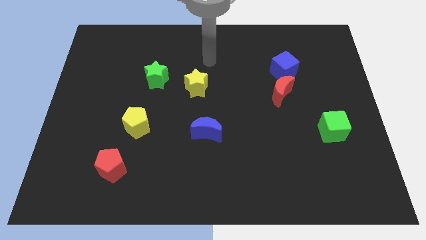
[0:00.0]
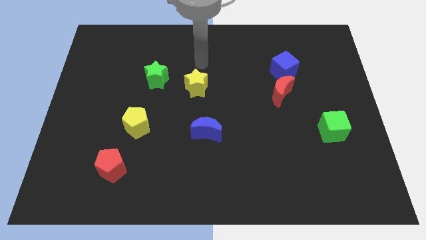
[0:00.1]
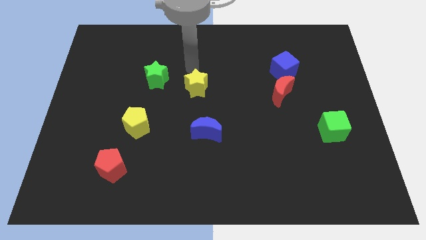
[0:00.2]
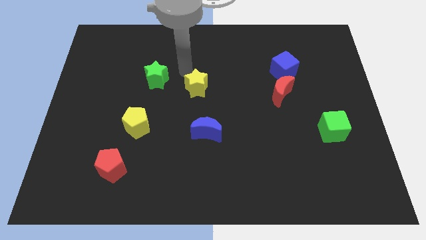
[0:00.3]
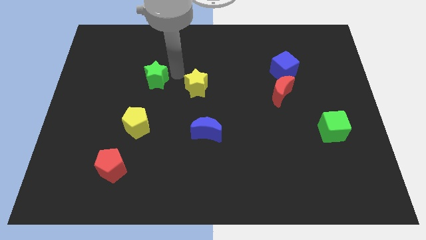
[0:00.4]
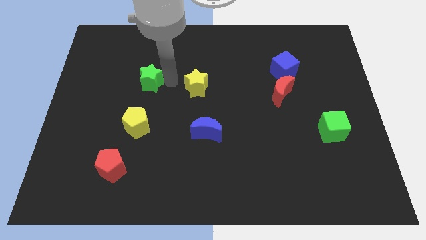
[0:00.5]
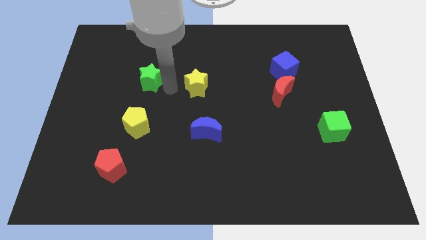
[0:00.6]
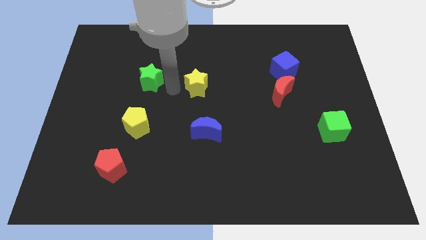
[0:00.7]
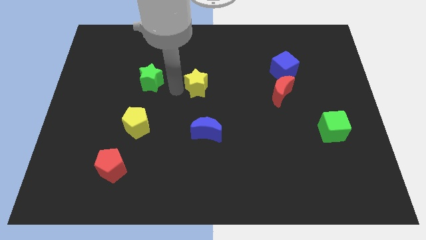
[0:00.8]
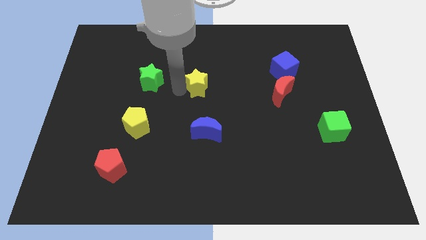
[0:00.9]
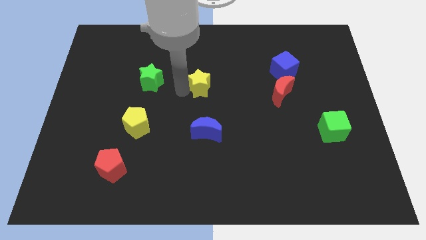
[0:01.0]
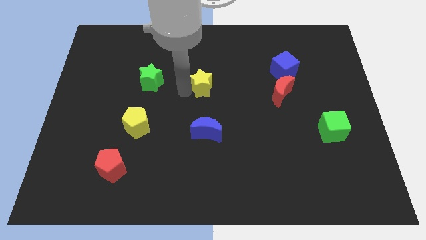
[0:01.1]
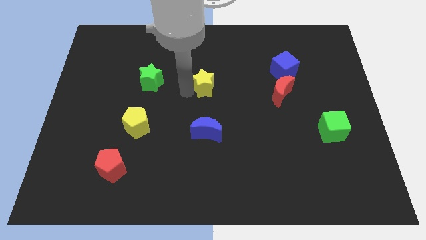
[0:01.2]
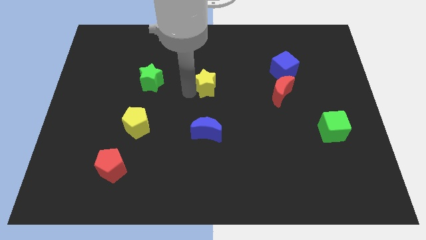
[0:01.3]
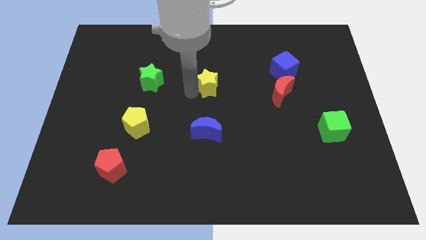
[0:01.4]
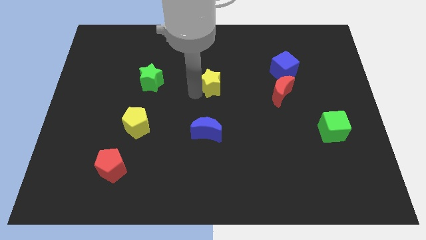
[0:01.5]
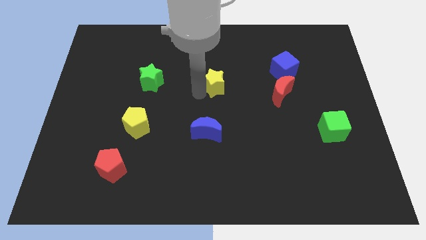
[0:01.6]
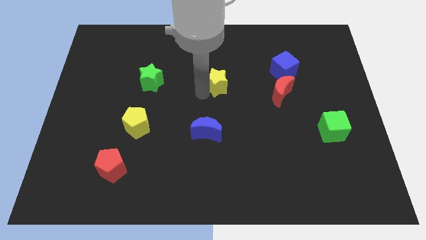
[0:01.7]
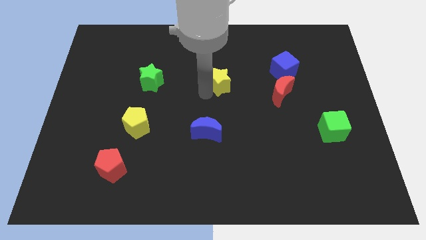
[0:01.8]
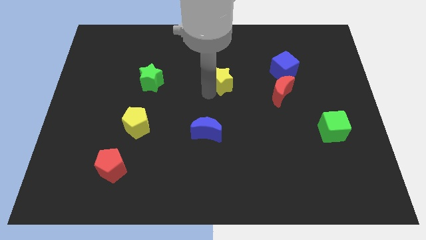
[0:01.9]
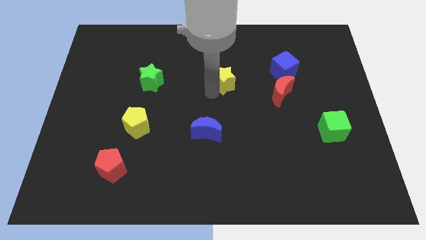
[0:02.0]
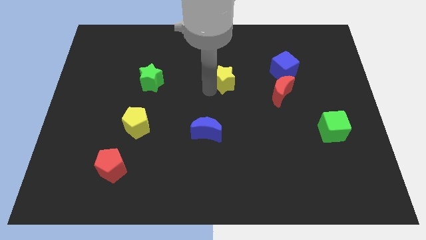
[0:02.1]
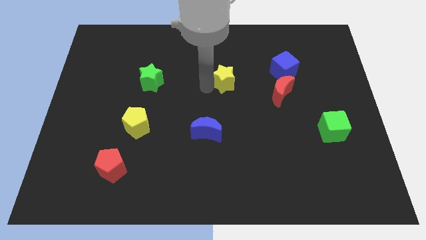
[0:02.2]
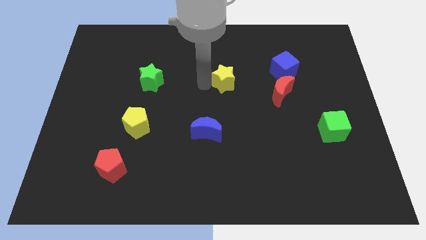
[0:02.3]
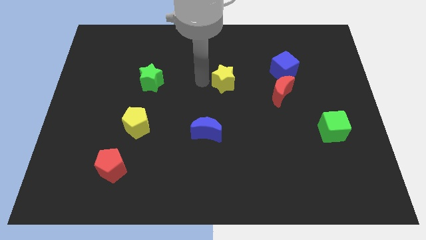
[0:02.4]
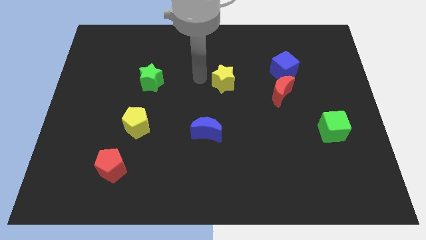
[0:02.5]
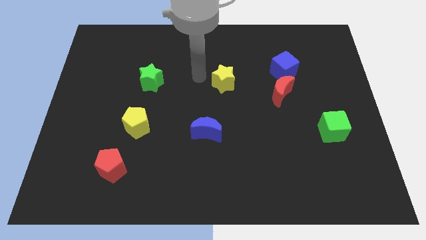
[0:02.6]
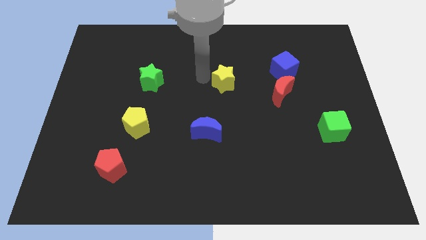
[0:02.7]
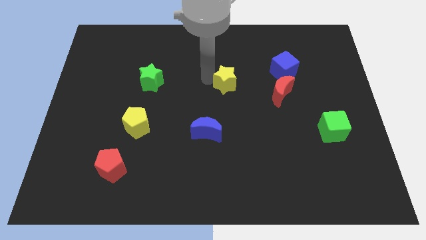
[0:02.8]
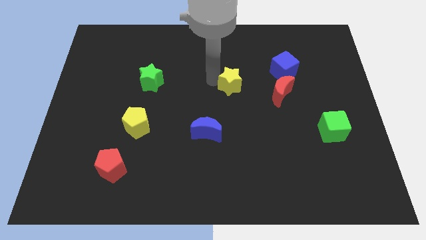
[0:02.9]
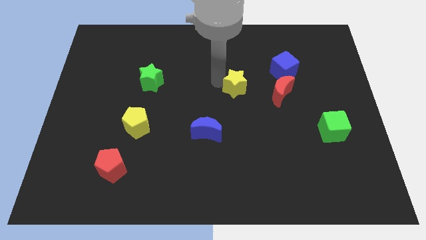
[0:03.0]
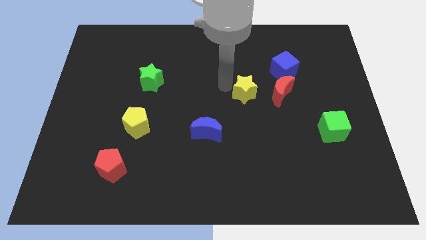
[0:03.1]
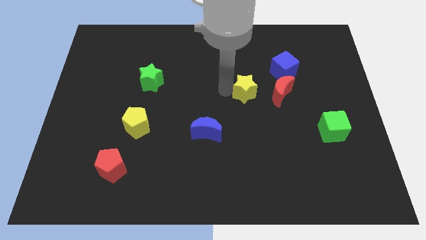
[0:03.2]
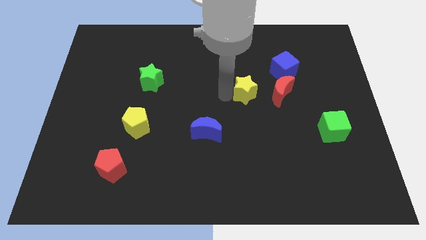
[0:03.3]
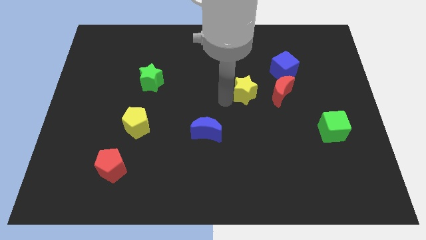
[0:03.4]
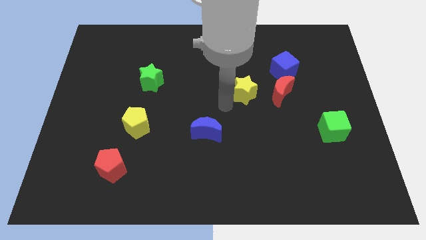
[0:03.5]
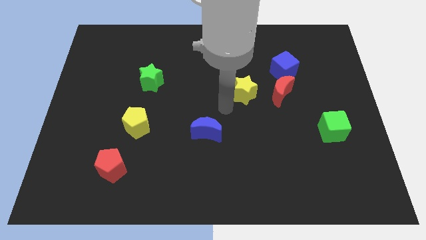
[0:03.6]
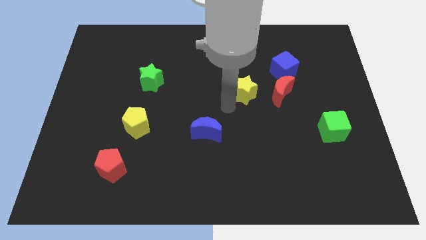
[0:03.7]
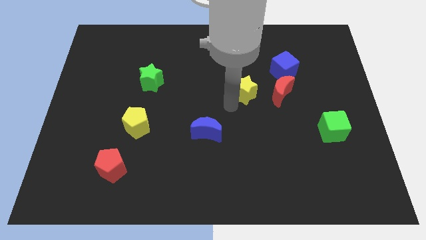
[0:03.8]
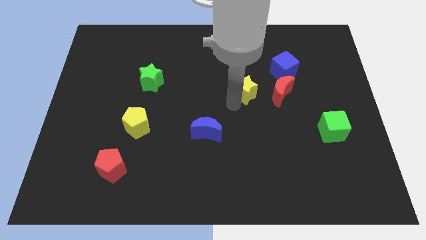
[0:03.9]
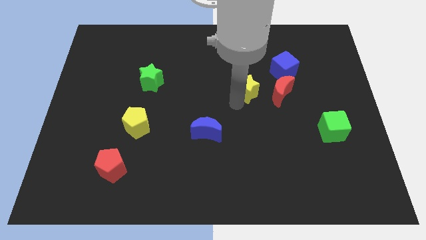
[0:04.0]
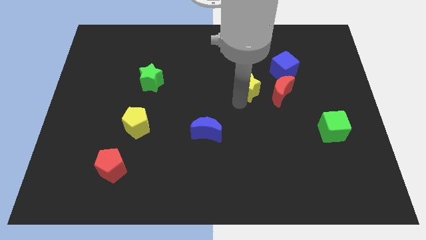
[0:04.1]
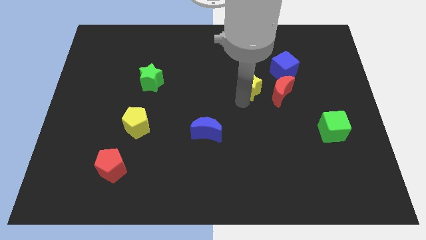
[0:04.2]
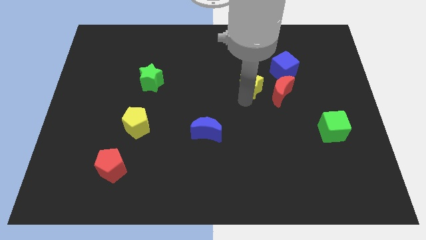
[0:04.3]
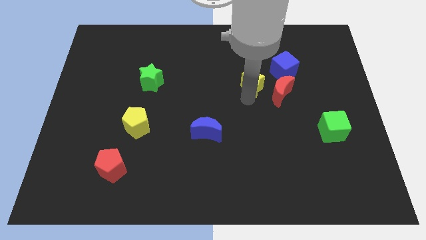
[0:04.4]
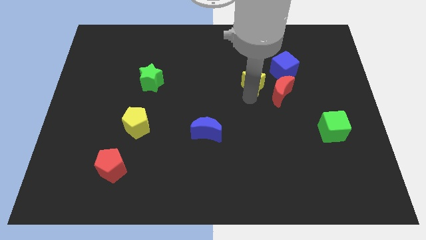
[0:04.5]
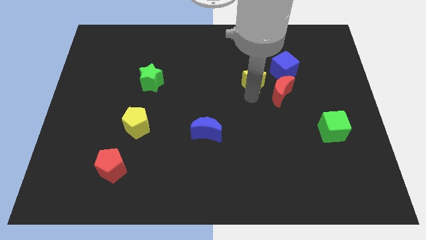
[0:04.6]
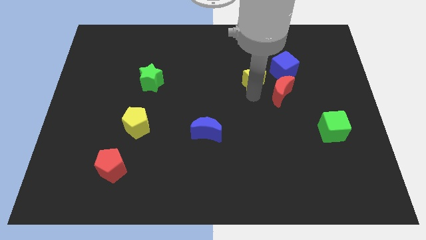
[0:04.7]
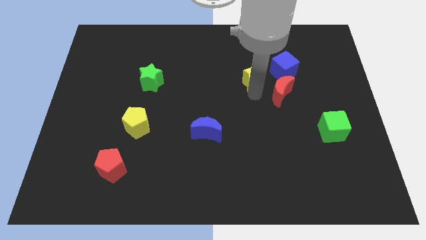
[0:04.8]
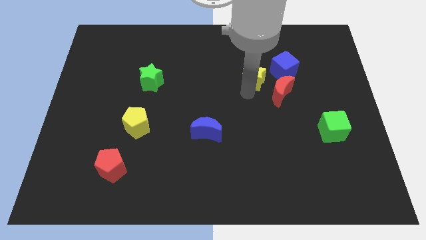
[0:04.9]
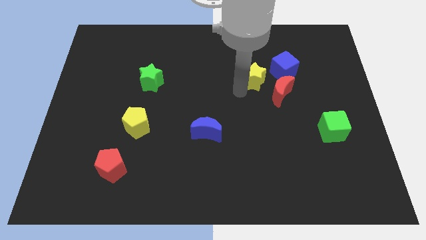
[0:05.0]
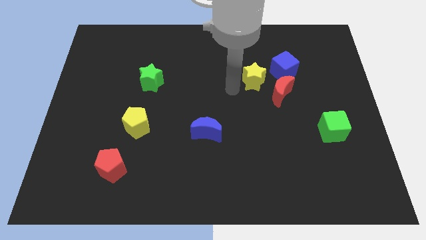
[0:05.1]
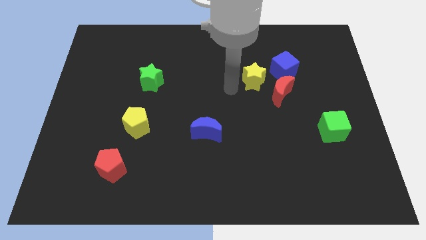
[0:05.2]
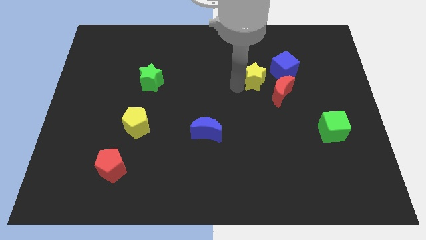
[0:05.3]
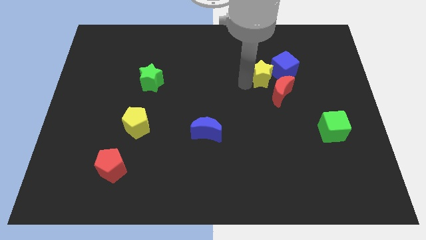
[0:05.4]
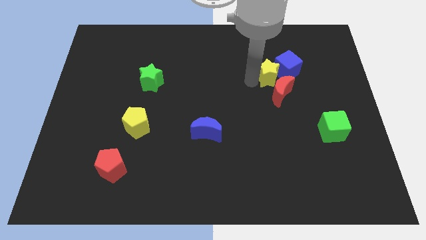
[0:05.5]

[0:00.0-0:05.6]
put the yellow star to the blue cube

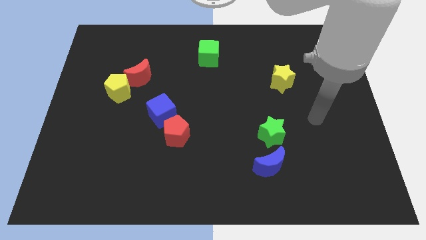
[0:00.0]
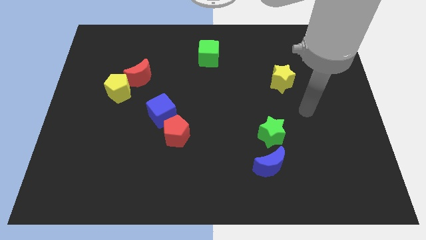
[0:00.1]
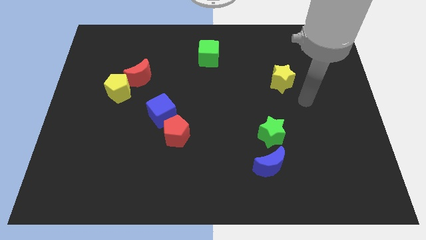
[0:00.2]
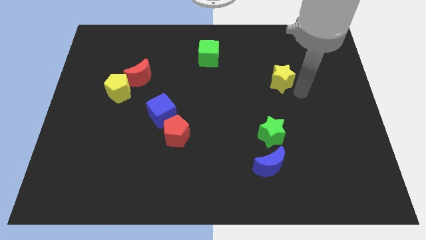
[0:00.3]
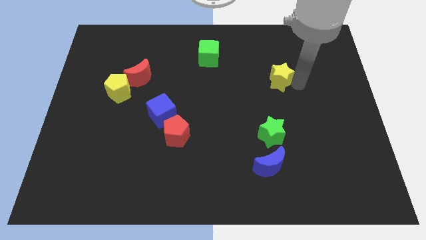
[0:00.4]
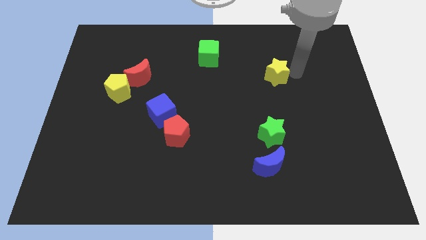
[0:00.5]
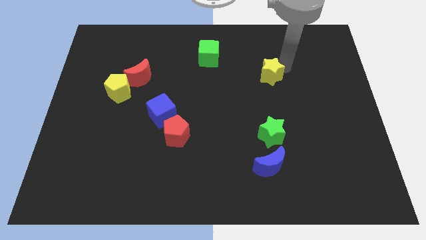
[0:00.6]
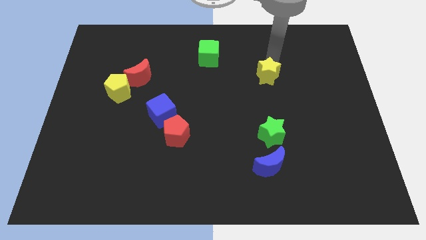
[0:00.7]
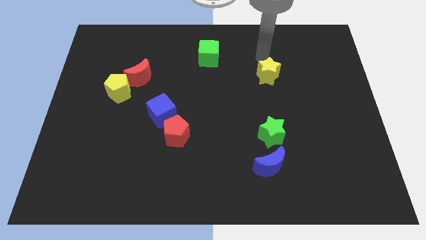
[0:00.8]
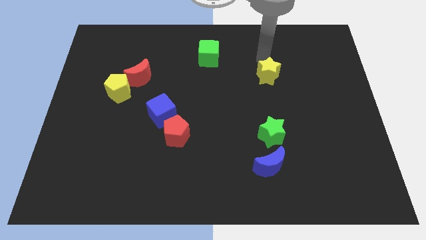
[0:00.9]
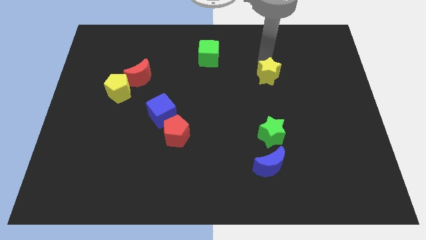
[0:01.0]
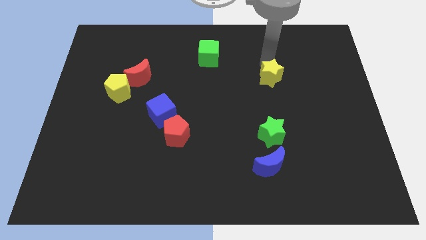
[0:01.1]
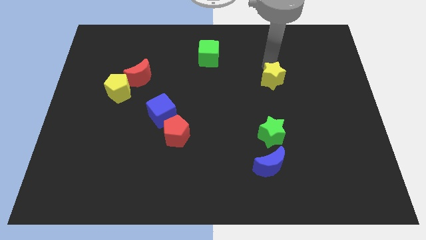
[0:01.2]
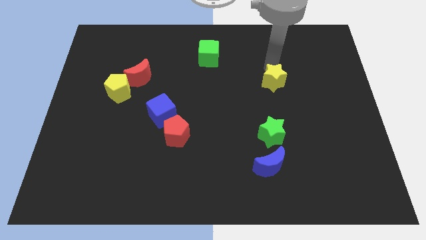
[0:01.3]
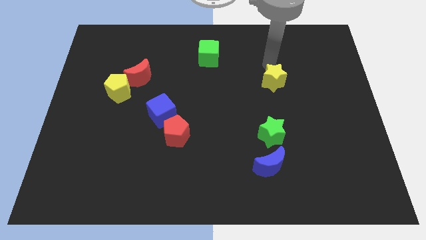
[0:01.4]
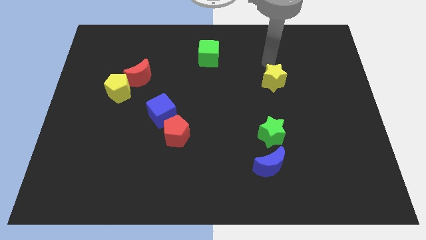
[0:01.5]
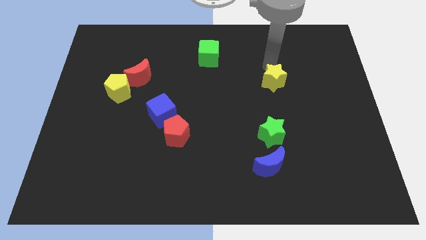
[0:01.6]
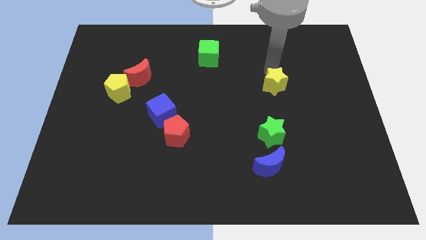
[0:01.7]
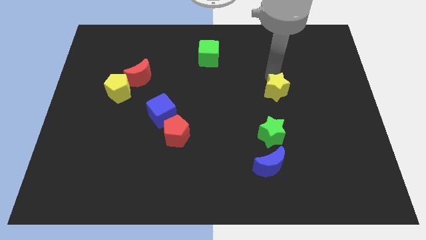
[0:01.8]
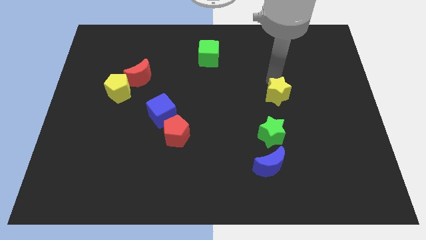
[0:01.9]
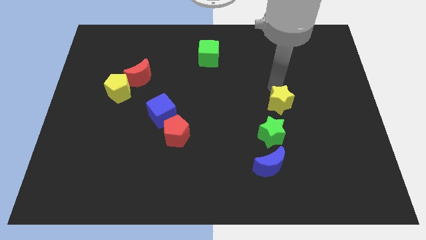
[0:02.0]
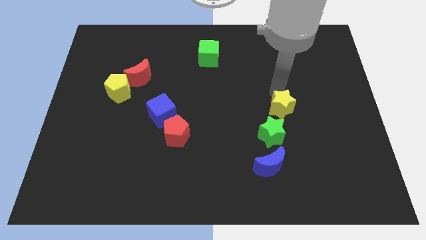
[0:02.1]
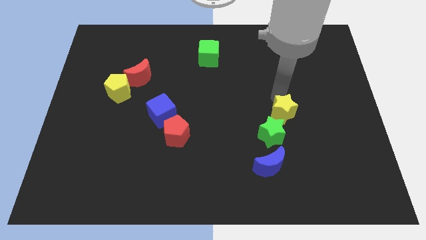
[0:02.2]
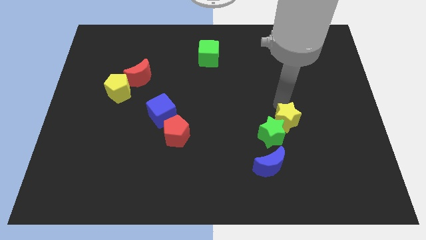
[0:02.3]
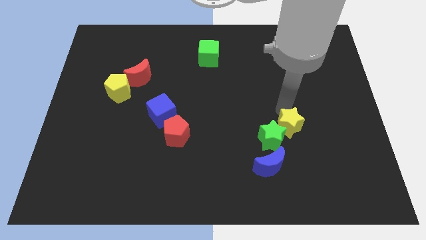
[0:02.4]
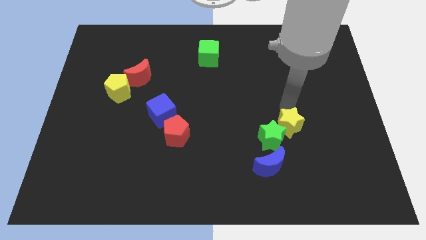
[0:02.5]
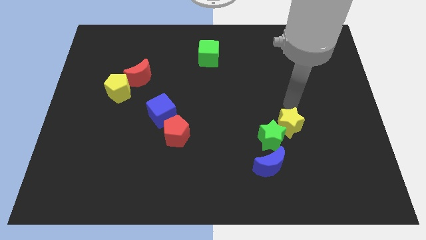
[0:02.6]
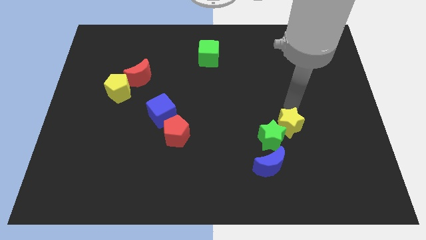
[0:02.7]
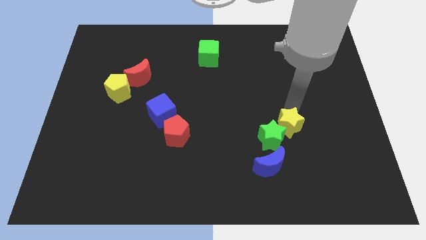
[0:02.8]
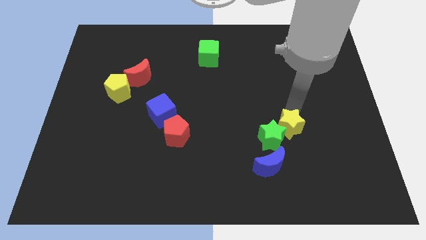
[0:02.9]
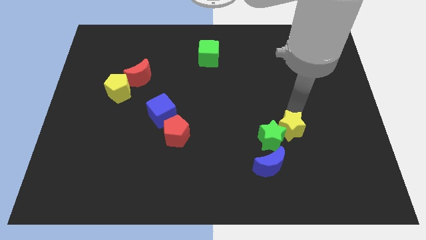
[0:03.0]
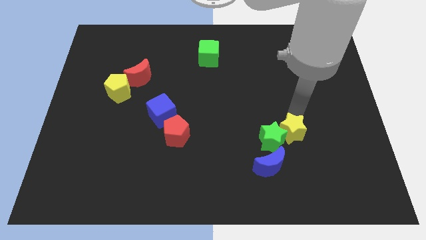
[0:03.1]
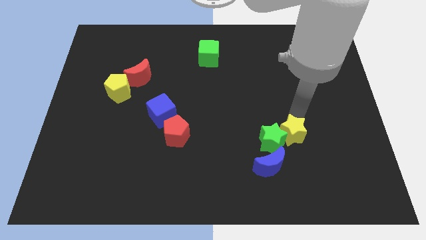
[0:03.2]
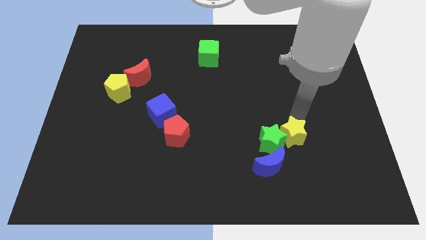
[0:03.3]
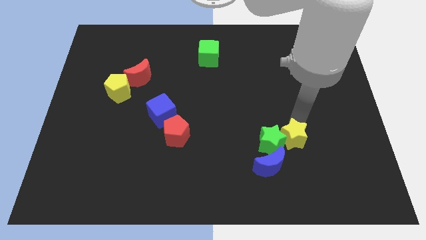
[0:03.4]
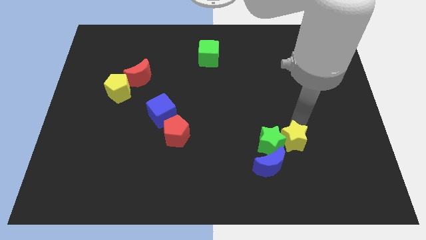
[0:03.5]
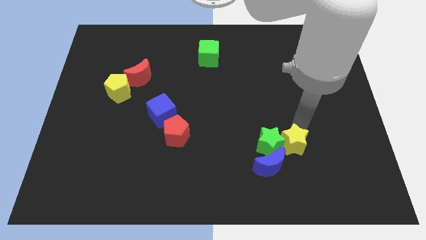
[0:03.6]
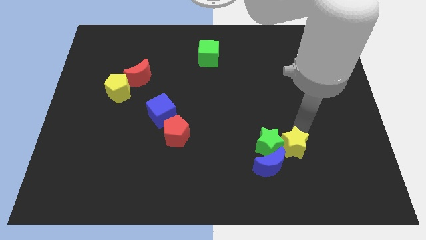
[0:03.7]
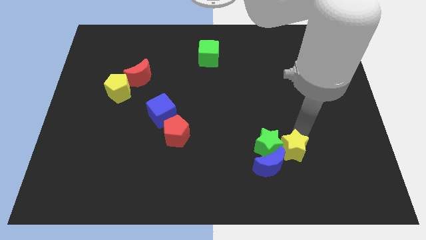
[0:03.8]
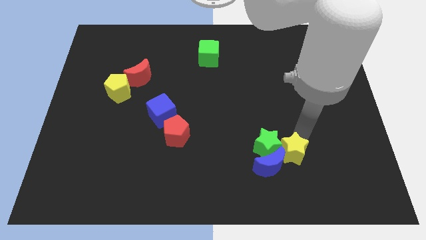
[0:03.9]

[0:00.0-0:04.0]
put the yellow star next to the blue moon
